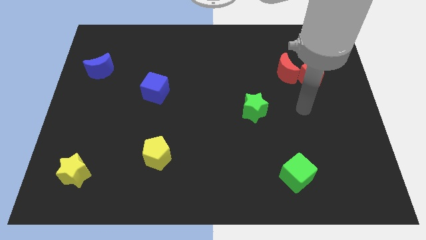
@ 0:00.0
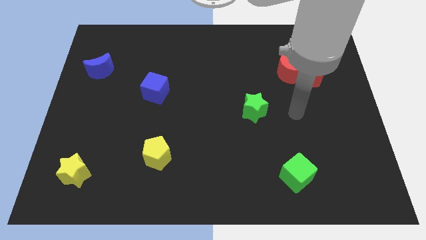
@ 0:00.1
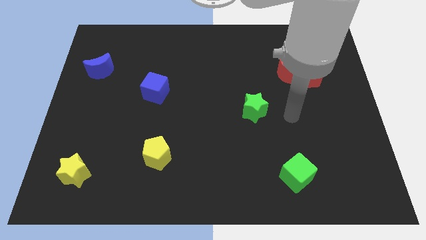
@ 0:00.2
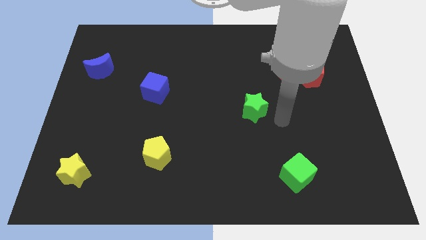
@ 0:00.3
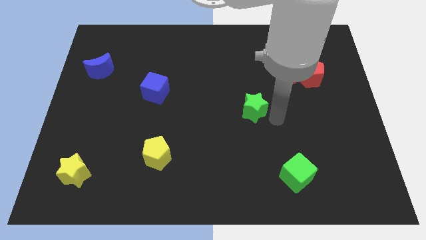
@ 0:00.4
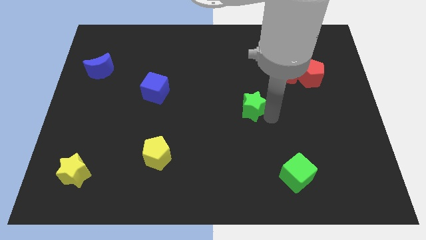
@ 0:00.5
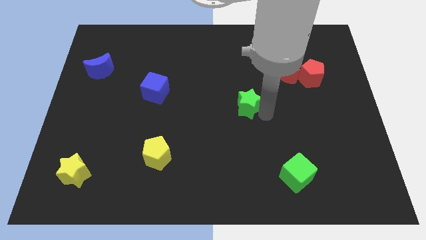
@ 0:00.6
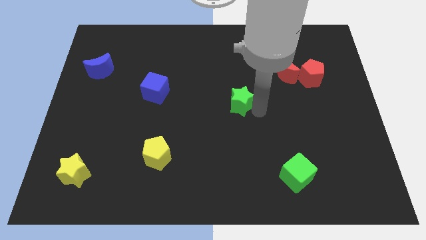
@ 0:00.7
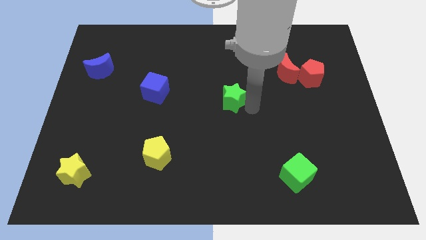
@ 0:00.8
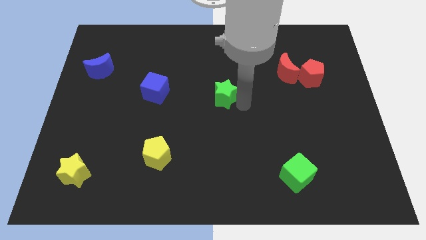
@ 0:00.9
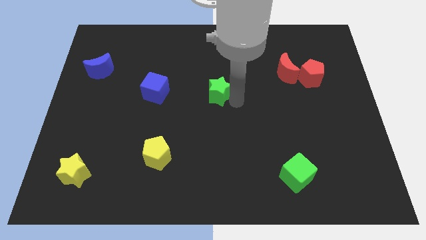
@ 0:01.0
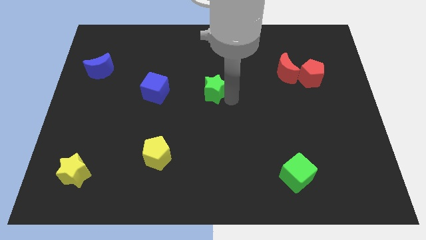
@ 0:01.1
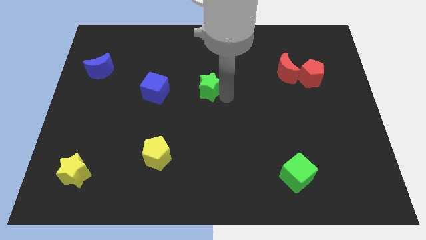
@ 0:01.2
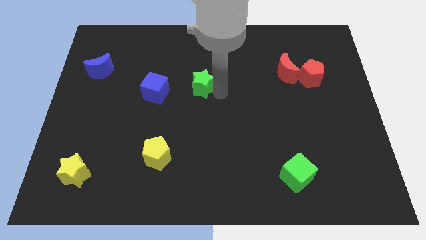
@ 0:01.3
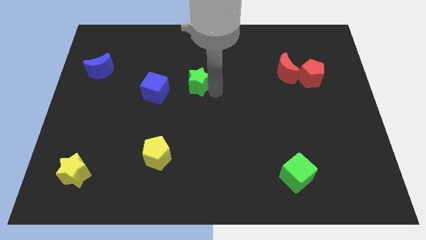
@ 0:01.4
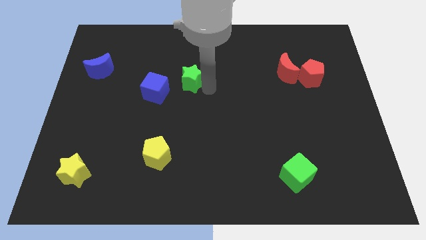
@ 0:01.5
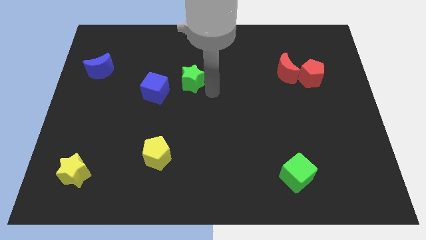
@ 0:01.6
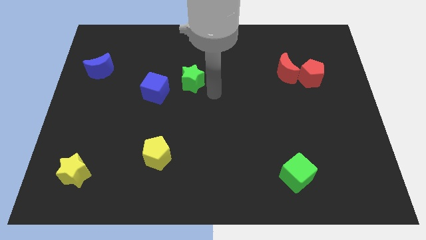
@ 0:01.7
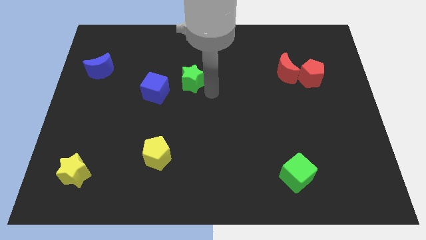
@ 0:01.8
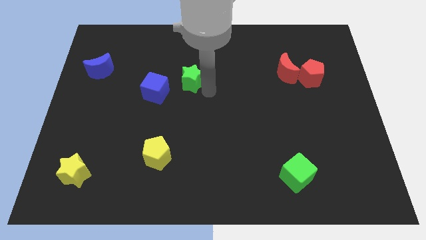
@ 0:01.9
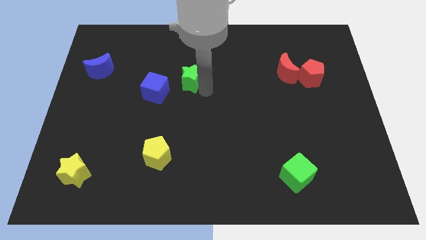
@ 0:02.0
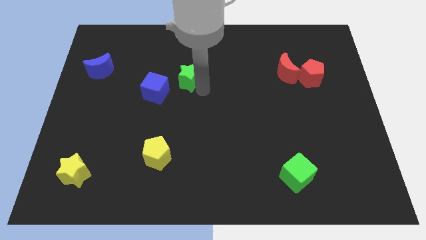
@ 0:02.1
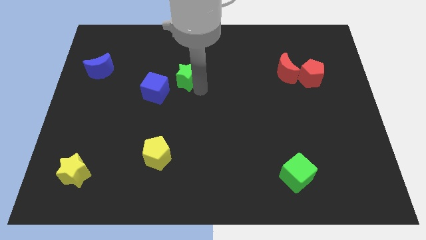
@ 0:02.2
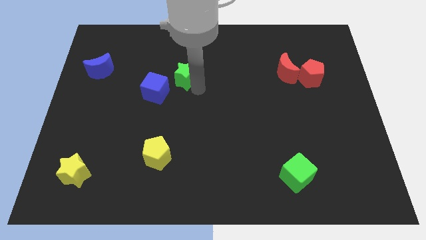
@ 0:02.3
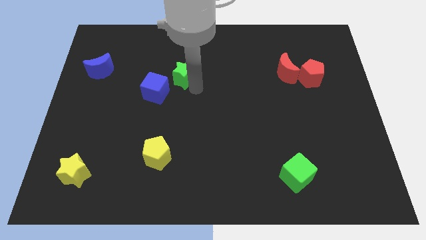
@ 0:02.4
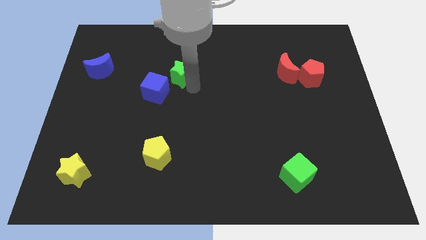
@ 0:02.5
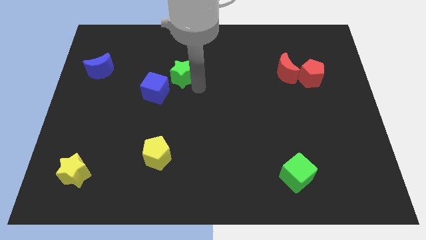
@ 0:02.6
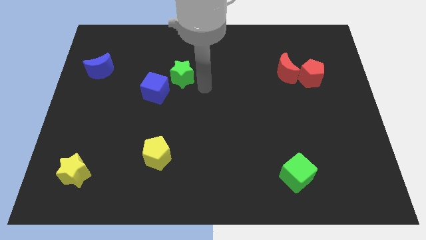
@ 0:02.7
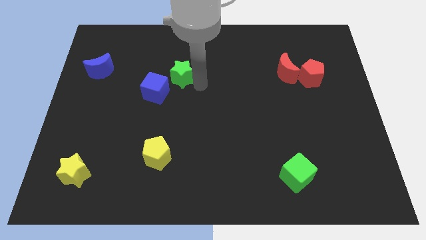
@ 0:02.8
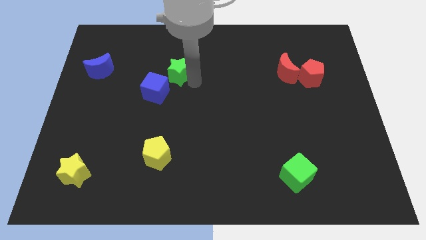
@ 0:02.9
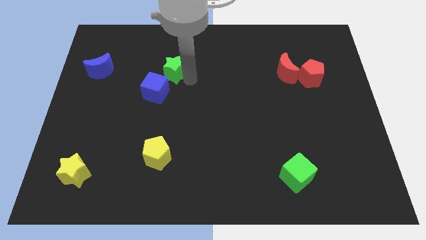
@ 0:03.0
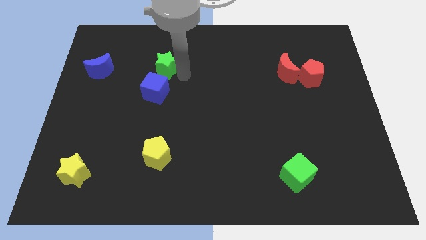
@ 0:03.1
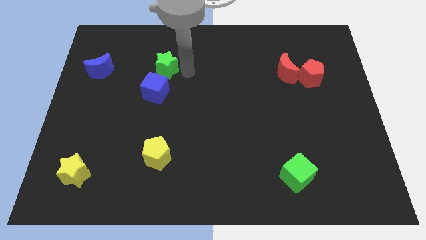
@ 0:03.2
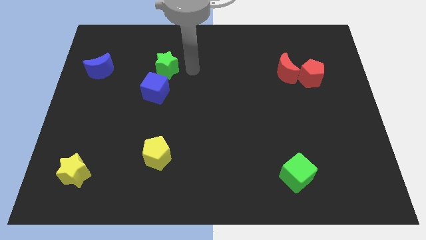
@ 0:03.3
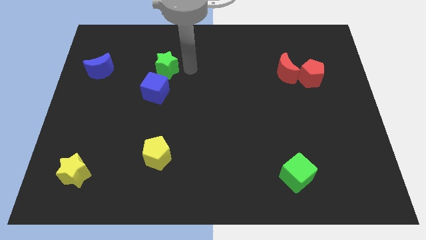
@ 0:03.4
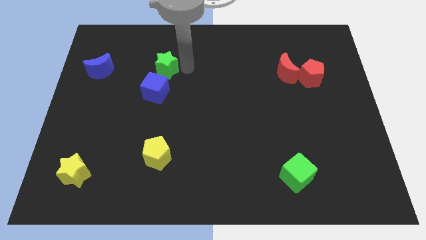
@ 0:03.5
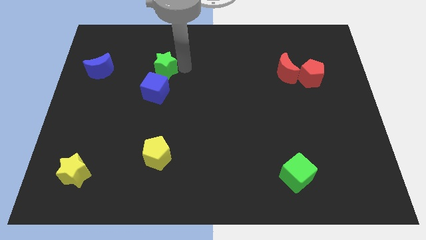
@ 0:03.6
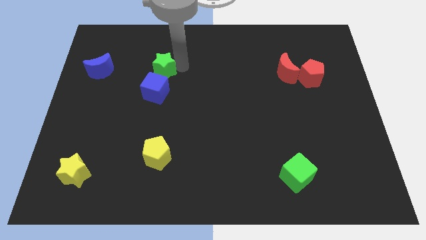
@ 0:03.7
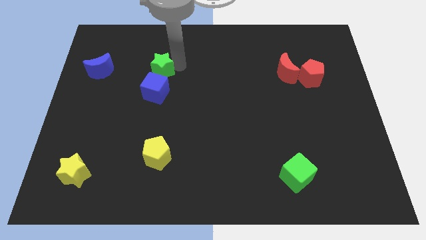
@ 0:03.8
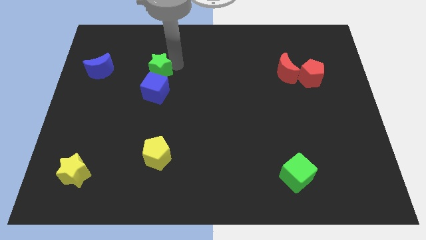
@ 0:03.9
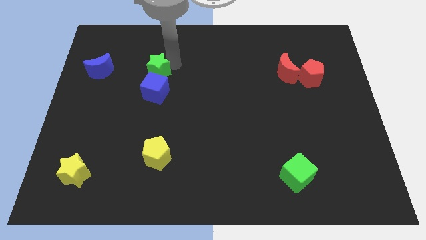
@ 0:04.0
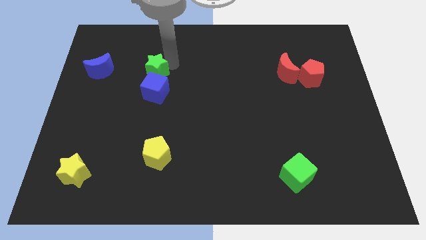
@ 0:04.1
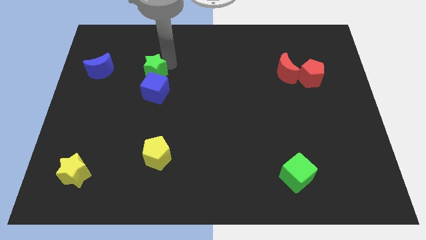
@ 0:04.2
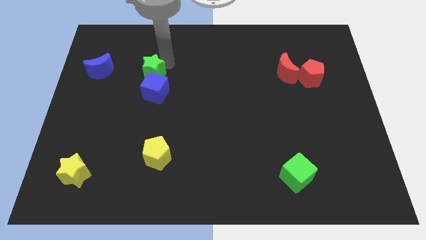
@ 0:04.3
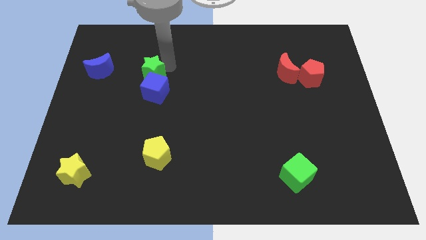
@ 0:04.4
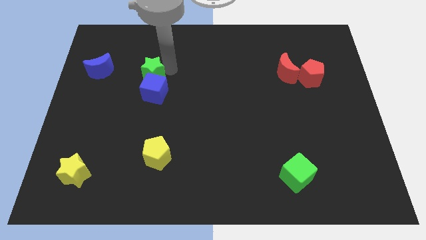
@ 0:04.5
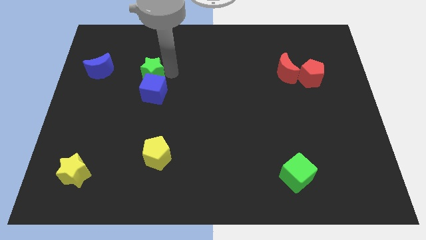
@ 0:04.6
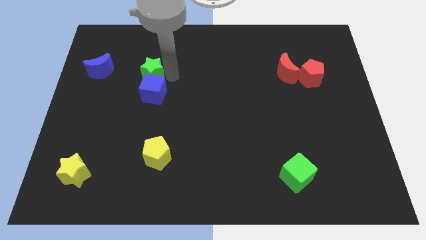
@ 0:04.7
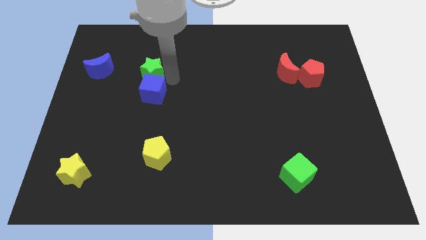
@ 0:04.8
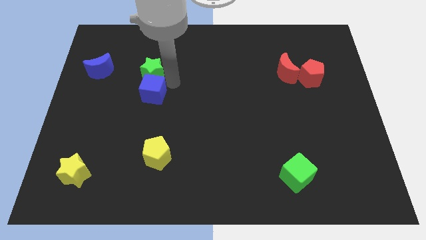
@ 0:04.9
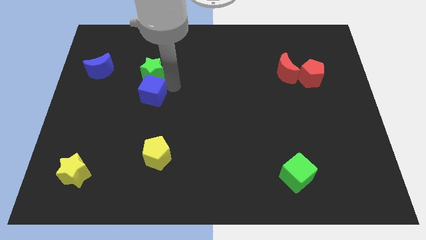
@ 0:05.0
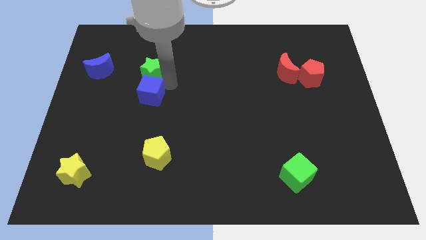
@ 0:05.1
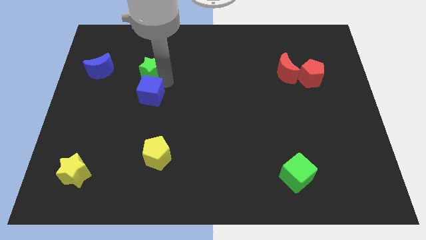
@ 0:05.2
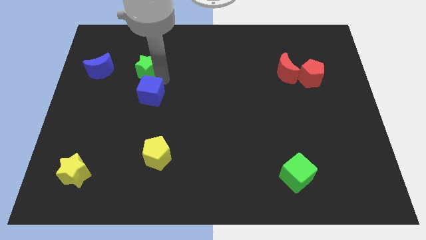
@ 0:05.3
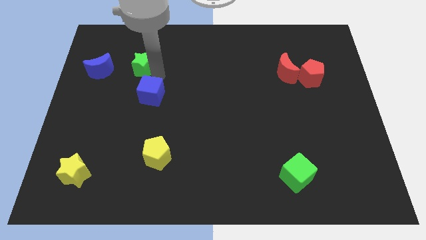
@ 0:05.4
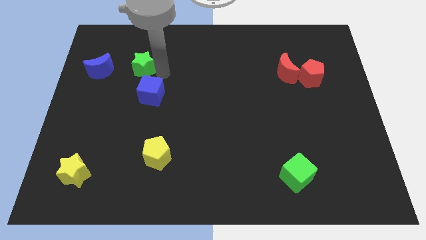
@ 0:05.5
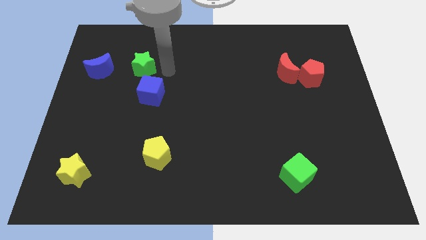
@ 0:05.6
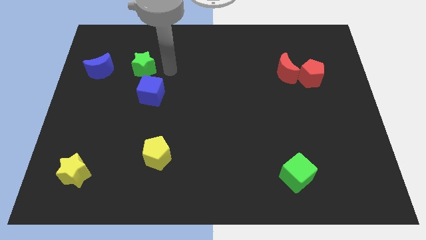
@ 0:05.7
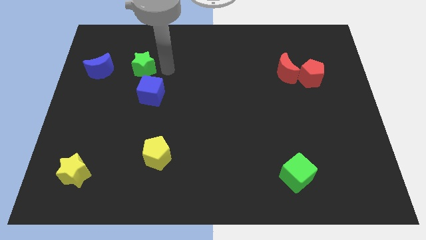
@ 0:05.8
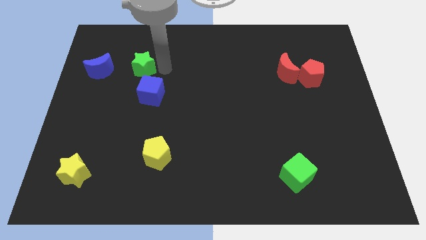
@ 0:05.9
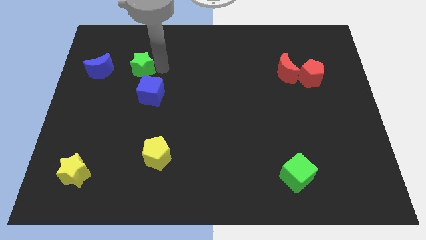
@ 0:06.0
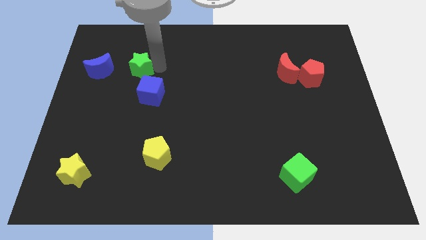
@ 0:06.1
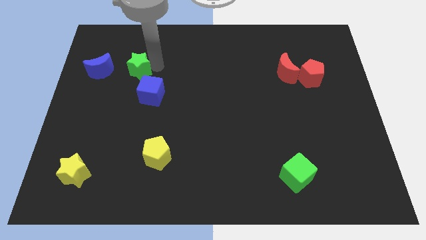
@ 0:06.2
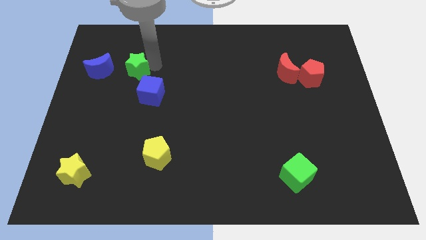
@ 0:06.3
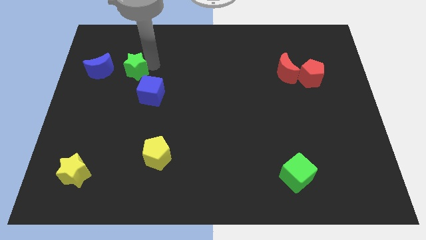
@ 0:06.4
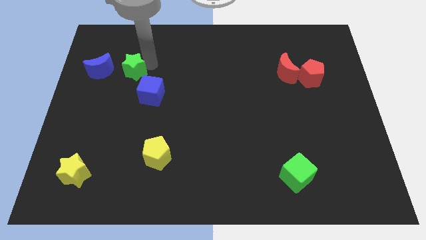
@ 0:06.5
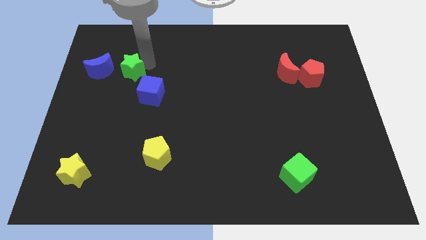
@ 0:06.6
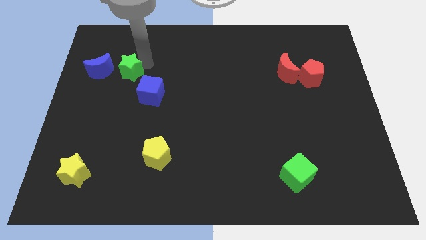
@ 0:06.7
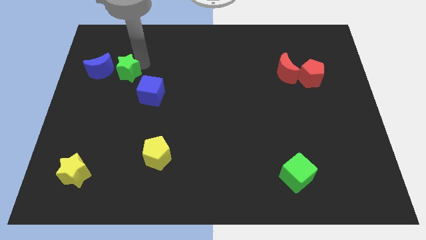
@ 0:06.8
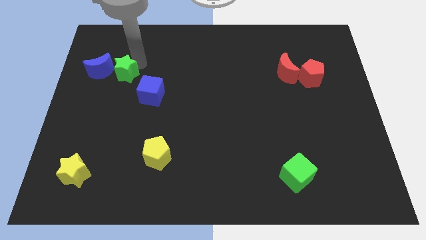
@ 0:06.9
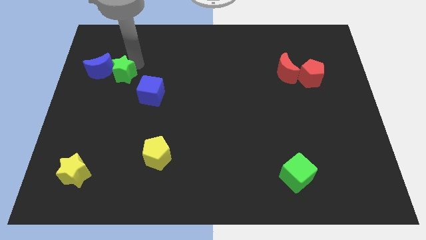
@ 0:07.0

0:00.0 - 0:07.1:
put the green star close to the blue moon
